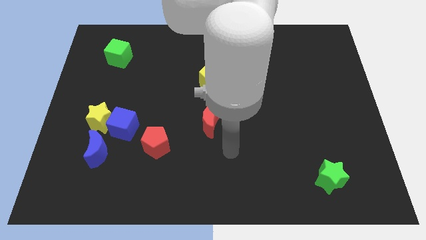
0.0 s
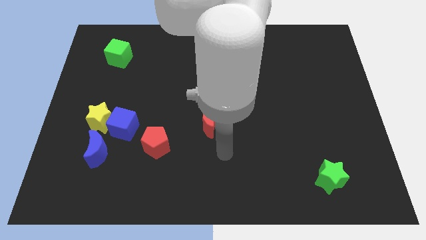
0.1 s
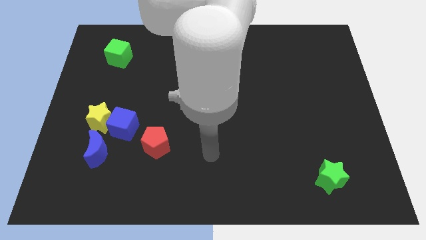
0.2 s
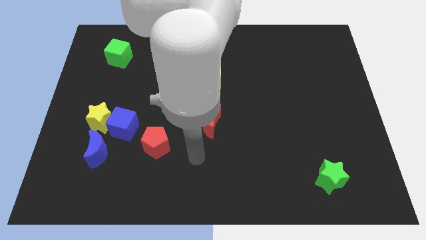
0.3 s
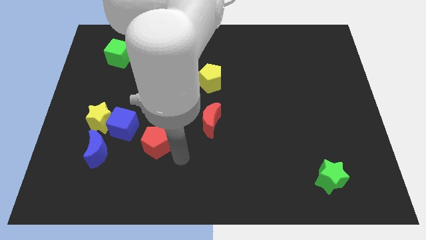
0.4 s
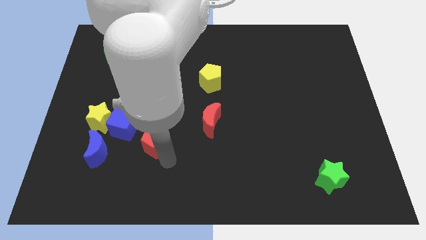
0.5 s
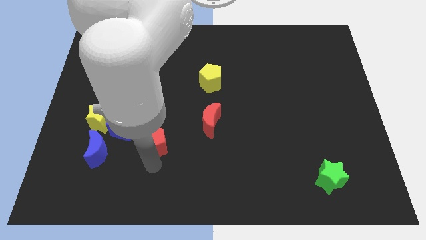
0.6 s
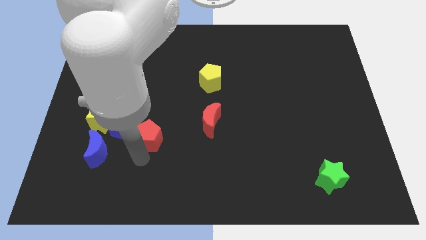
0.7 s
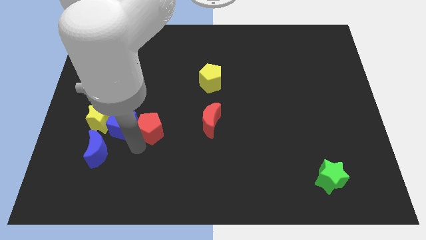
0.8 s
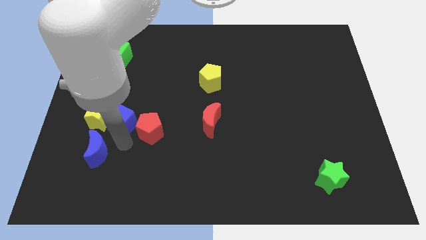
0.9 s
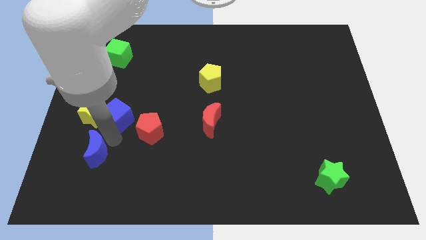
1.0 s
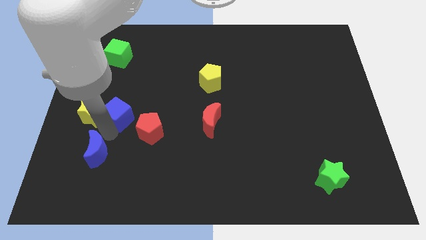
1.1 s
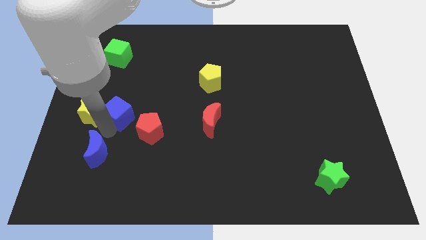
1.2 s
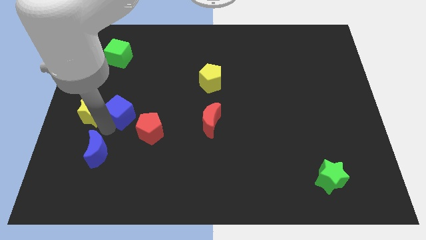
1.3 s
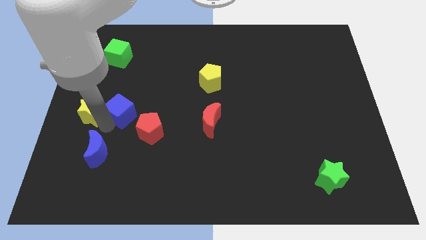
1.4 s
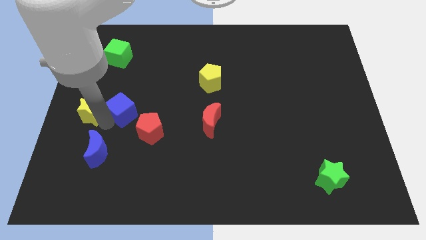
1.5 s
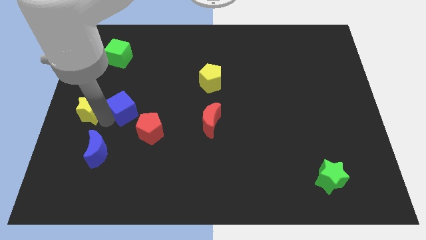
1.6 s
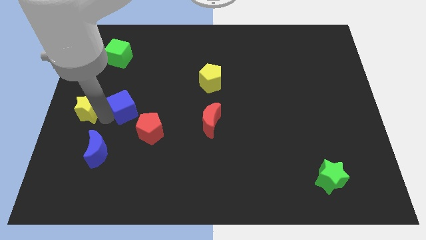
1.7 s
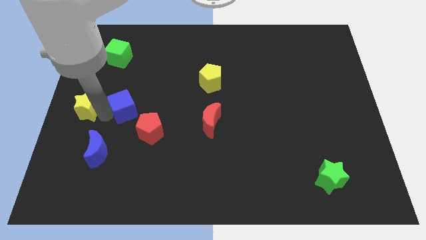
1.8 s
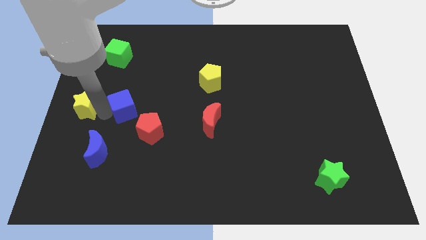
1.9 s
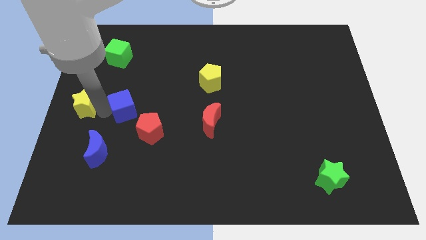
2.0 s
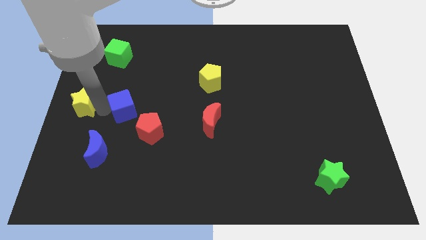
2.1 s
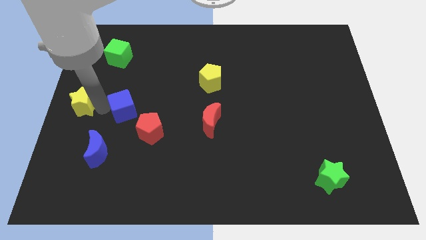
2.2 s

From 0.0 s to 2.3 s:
move the yellow star away from the blue cube and blue moon

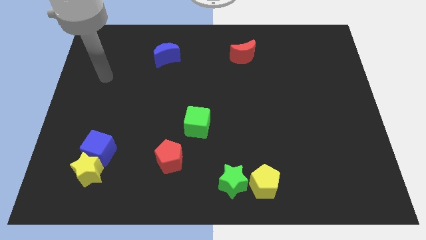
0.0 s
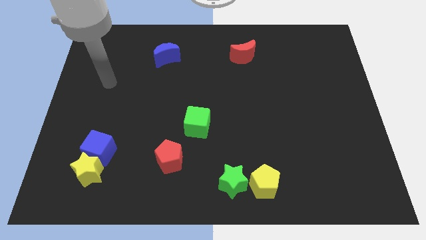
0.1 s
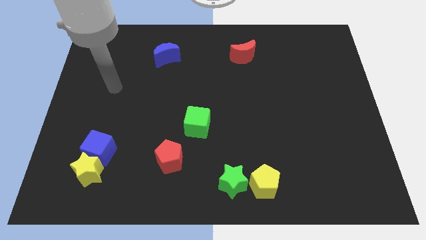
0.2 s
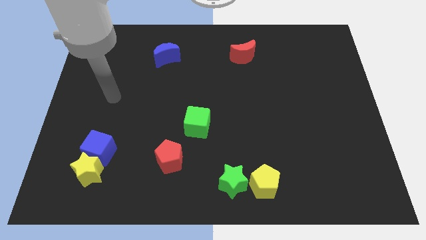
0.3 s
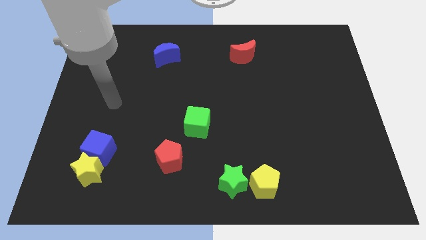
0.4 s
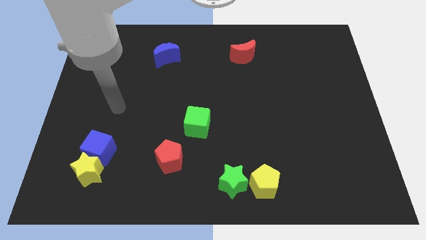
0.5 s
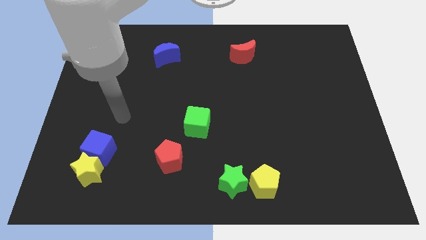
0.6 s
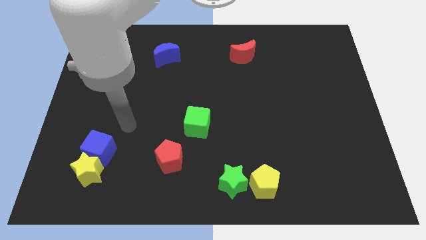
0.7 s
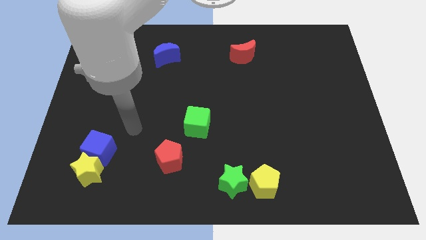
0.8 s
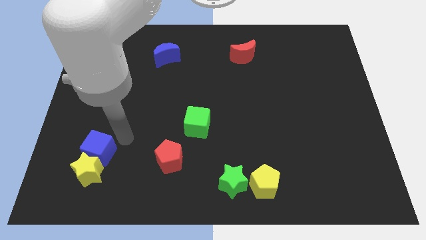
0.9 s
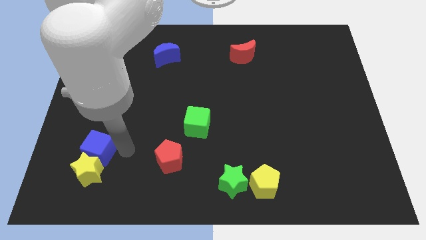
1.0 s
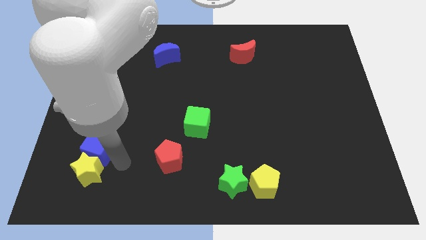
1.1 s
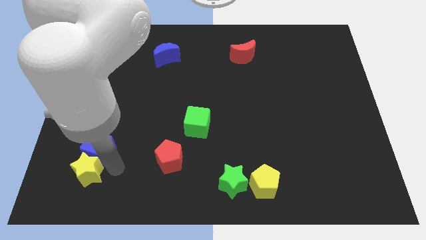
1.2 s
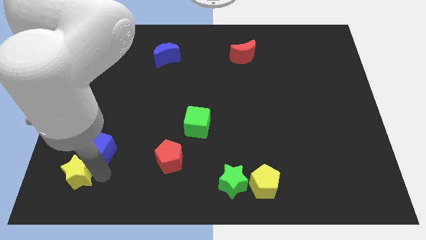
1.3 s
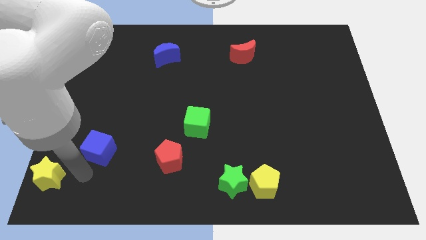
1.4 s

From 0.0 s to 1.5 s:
move the blue cube away from the yellow star

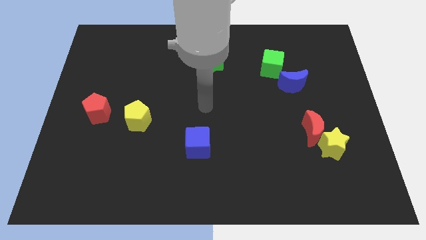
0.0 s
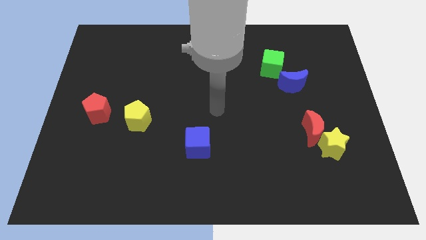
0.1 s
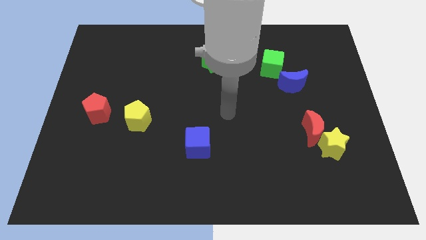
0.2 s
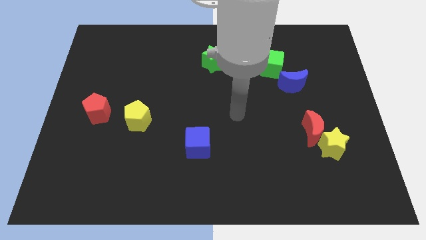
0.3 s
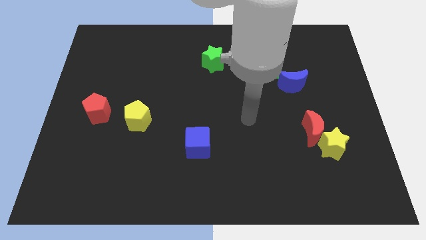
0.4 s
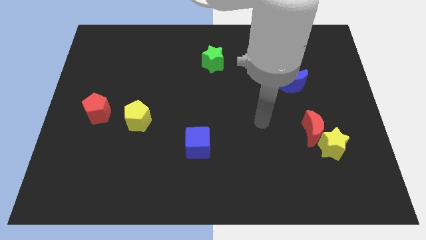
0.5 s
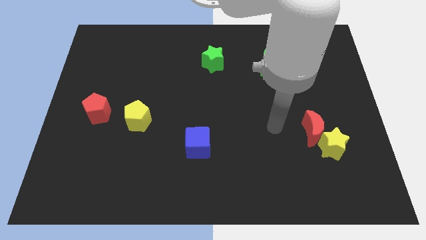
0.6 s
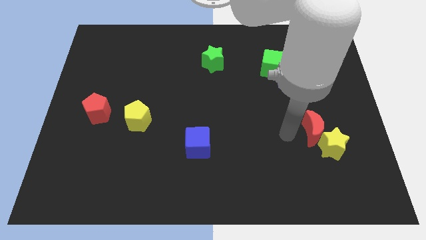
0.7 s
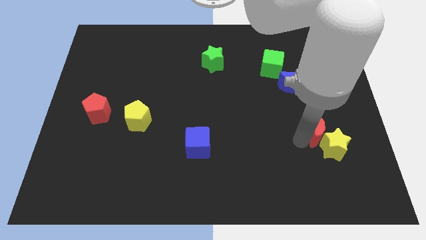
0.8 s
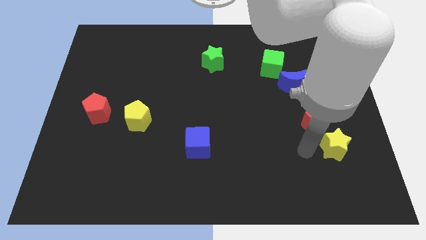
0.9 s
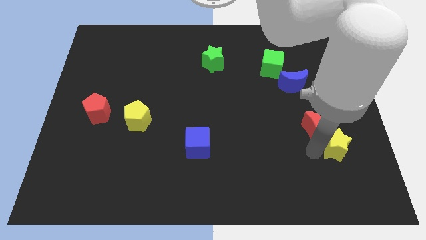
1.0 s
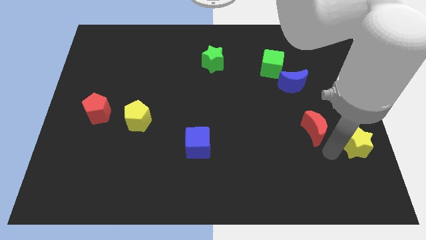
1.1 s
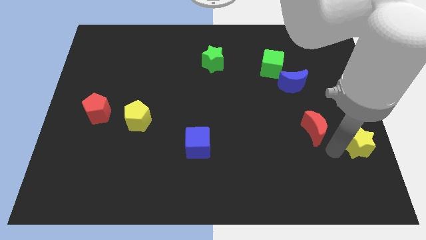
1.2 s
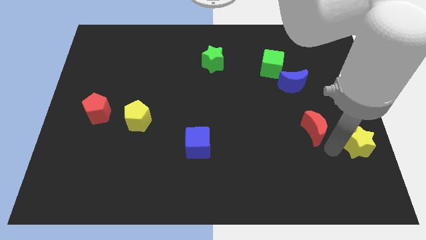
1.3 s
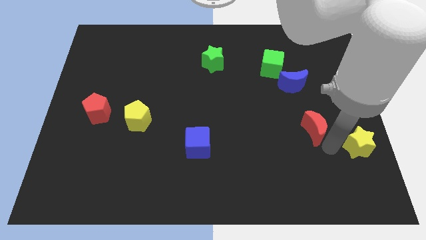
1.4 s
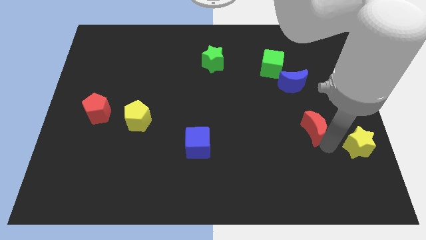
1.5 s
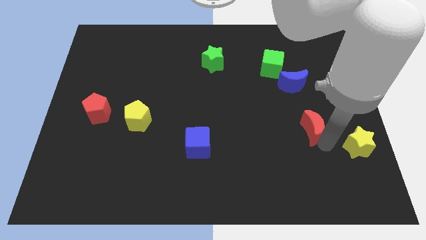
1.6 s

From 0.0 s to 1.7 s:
pull the red moon apart from the yellow star

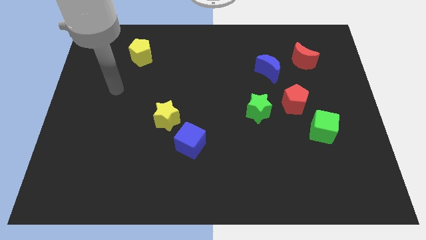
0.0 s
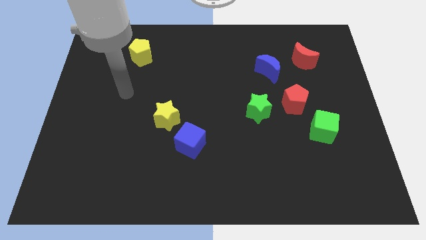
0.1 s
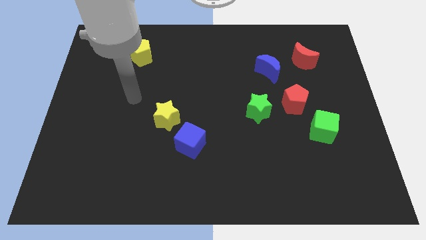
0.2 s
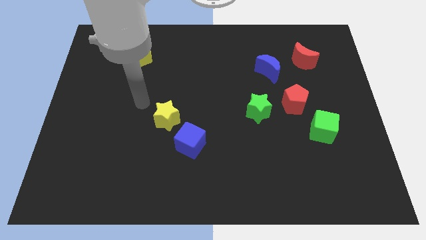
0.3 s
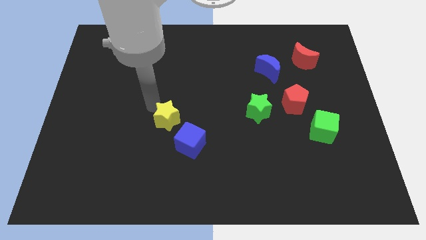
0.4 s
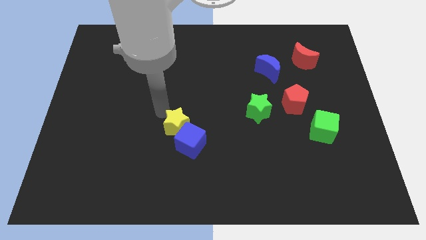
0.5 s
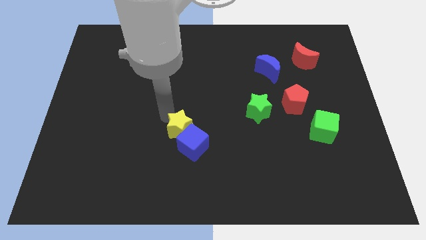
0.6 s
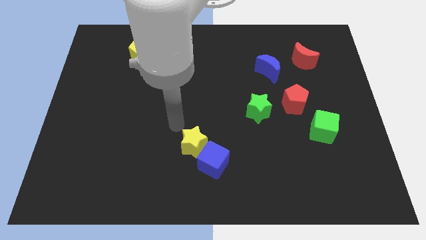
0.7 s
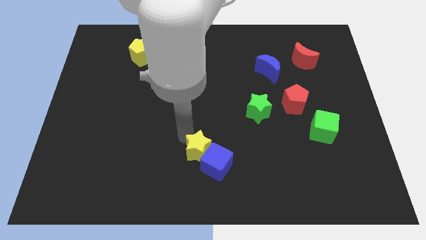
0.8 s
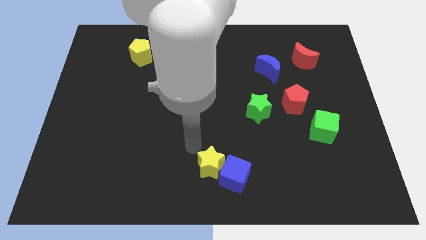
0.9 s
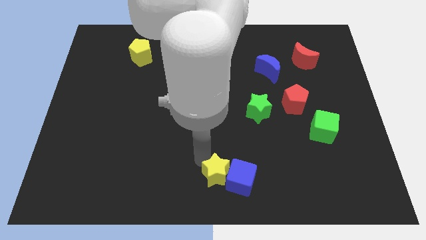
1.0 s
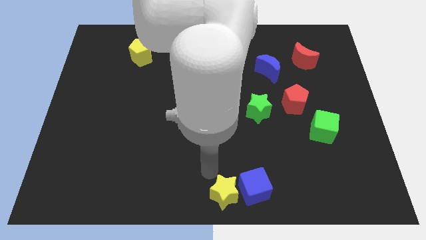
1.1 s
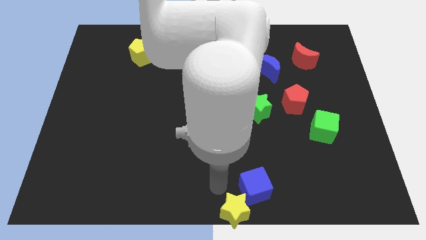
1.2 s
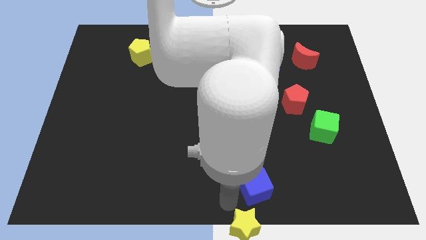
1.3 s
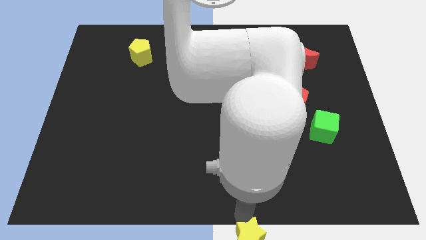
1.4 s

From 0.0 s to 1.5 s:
pull the blue cube apart from the yellow star

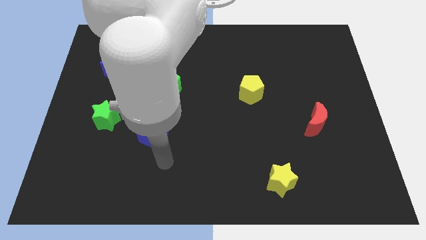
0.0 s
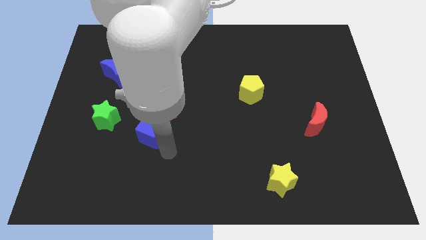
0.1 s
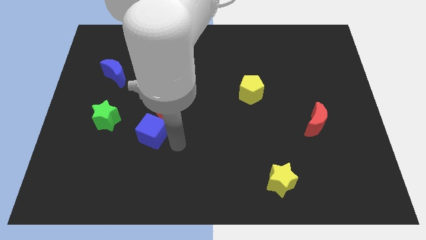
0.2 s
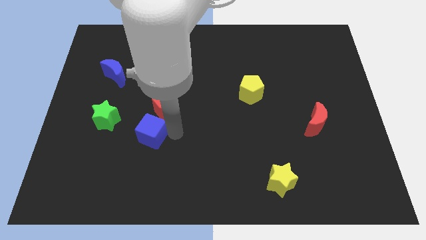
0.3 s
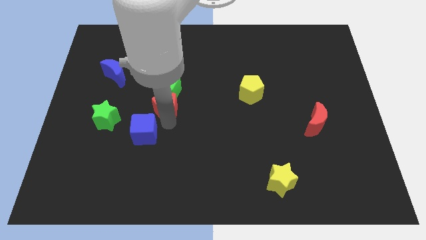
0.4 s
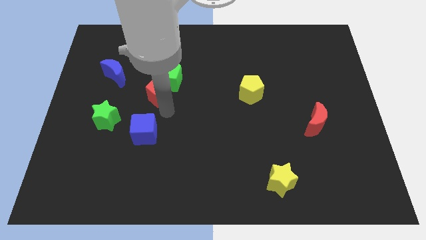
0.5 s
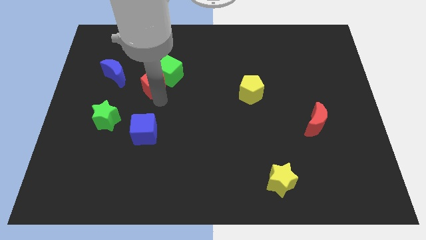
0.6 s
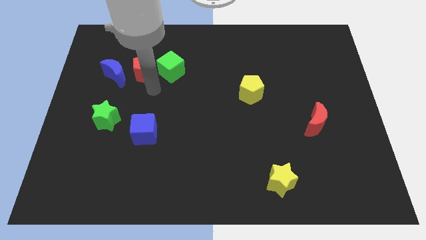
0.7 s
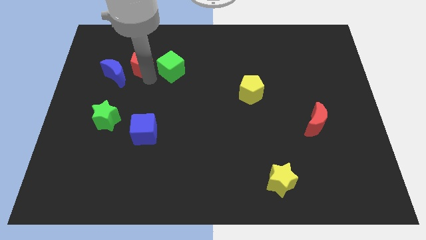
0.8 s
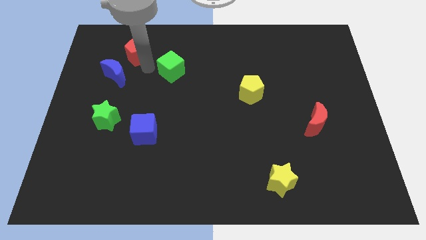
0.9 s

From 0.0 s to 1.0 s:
separate the green cube from the red pentagon

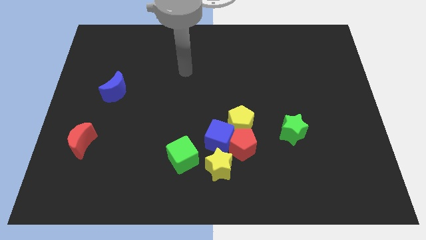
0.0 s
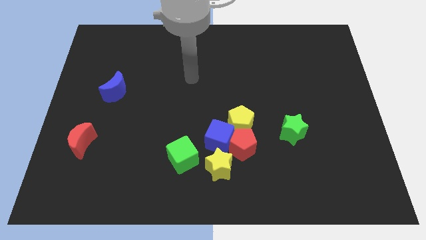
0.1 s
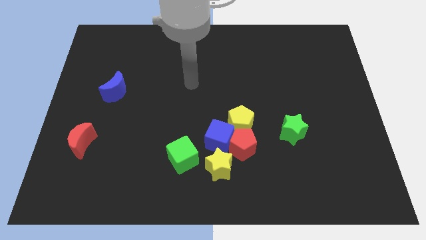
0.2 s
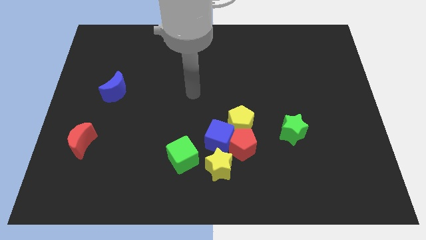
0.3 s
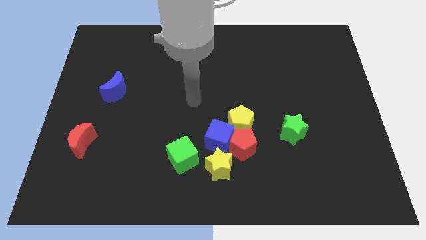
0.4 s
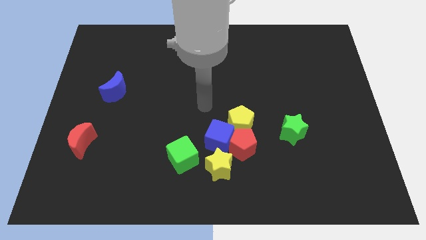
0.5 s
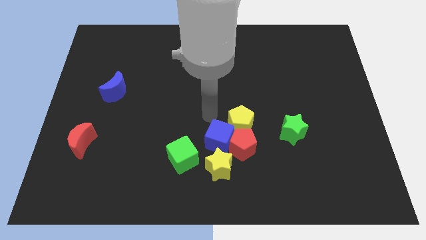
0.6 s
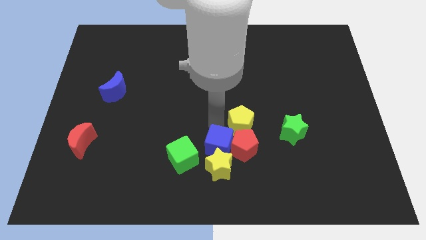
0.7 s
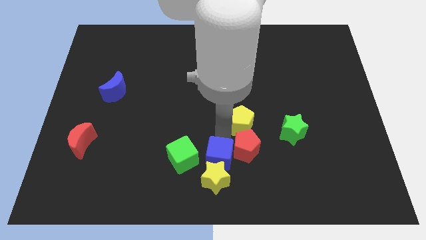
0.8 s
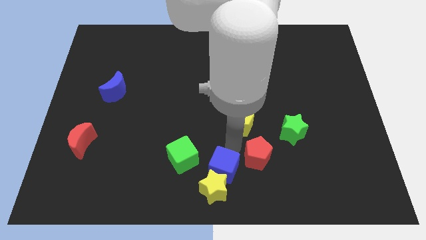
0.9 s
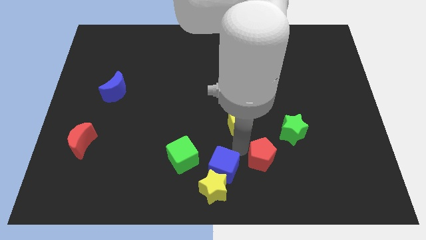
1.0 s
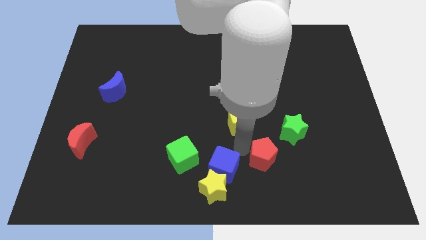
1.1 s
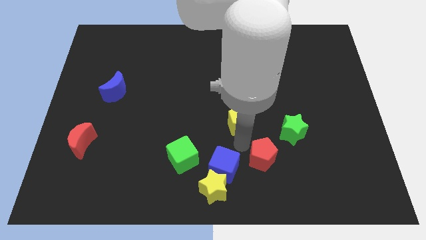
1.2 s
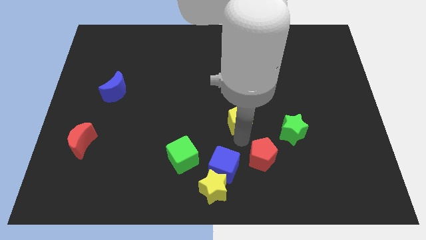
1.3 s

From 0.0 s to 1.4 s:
move the yellow pentagon away from the red pentagon and blue cube
